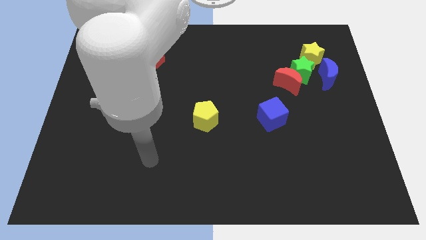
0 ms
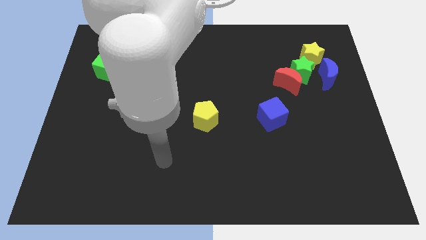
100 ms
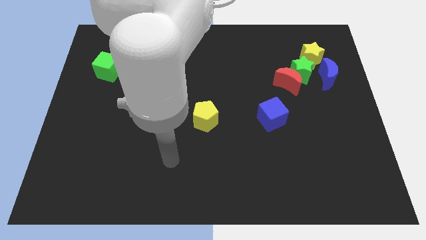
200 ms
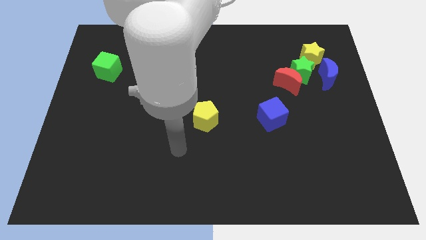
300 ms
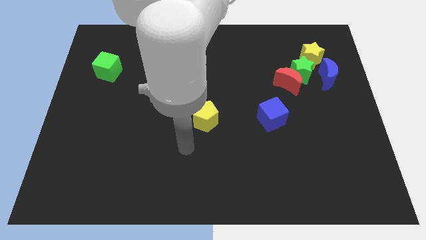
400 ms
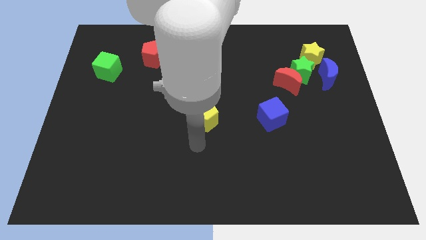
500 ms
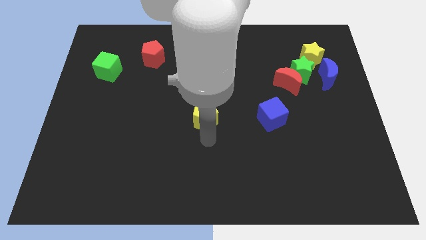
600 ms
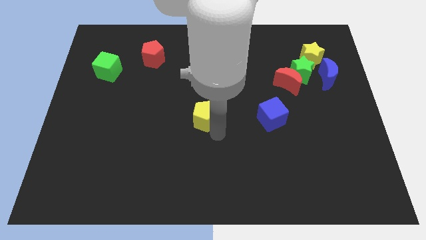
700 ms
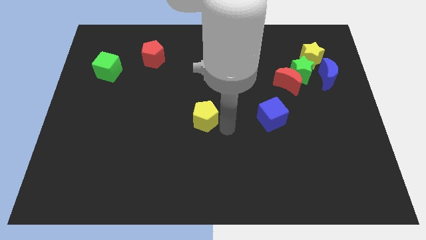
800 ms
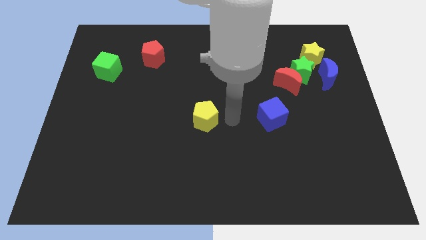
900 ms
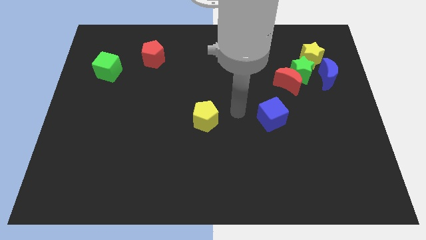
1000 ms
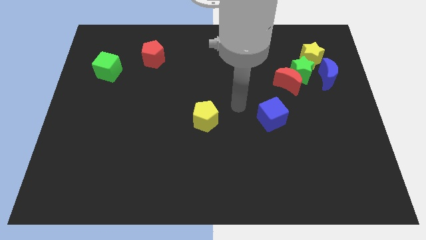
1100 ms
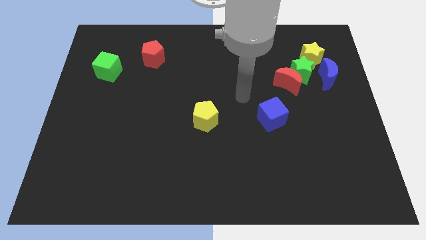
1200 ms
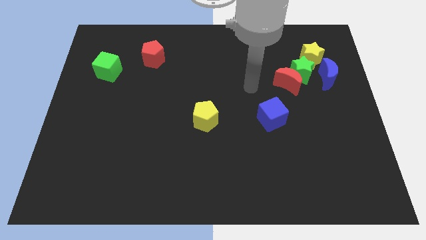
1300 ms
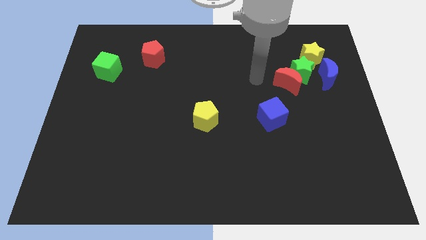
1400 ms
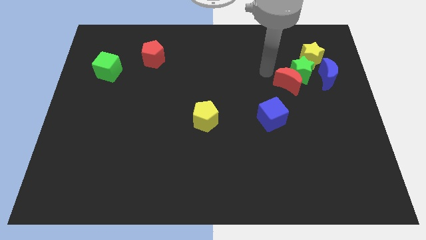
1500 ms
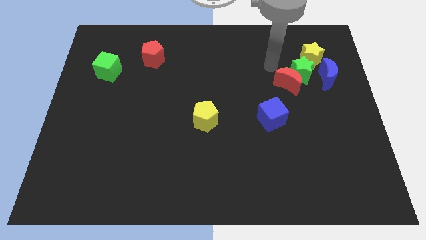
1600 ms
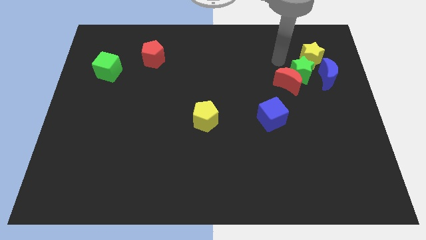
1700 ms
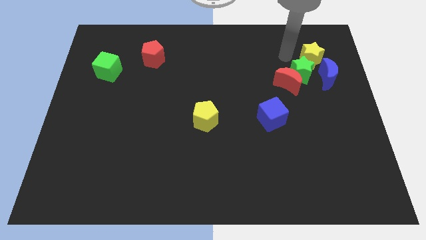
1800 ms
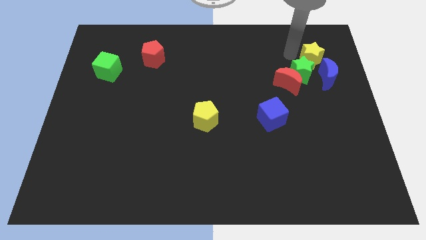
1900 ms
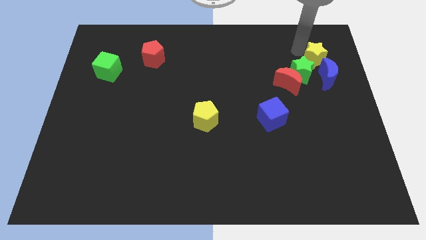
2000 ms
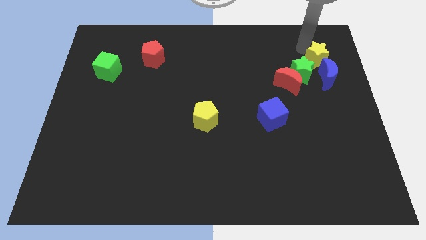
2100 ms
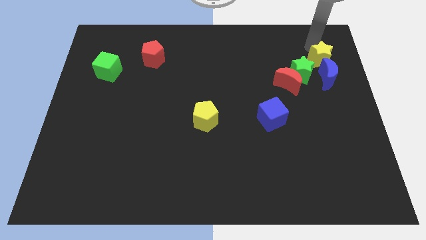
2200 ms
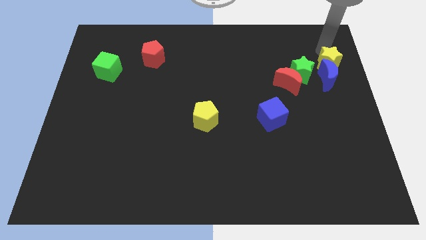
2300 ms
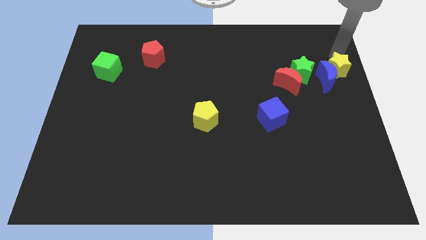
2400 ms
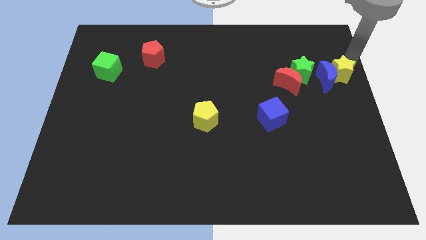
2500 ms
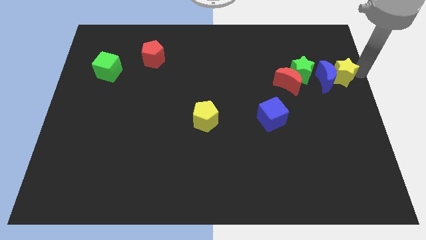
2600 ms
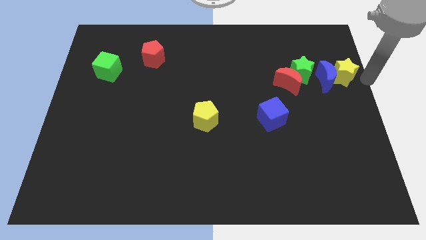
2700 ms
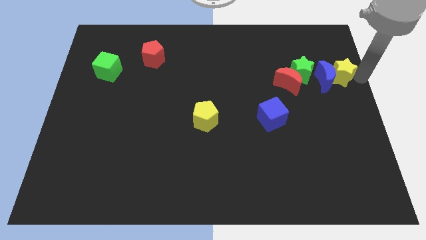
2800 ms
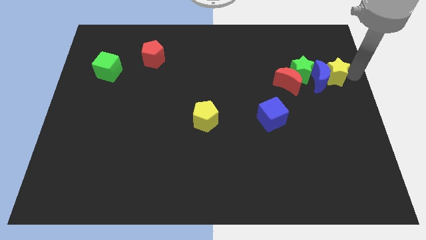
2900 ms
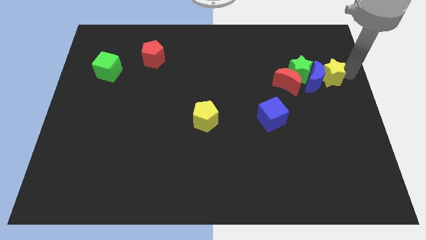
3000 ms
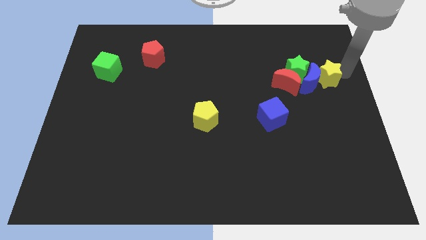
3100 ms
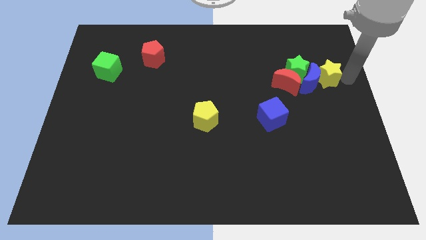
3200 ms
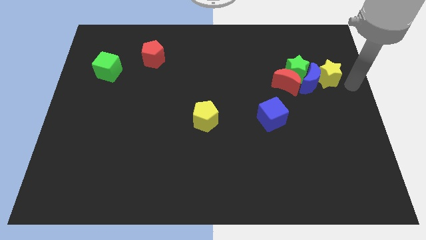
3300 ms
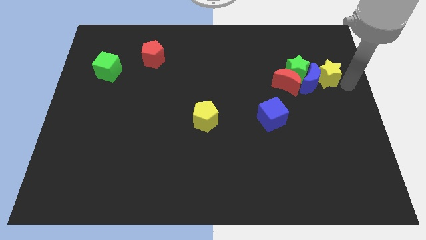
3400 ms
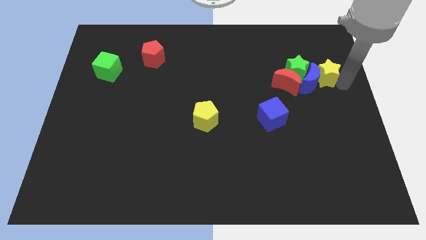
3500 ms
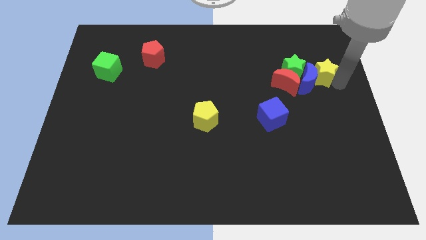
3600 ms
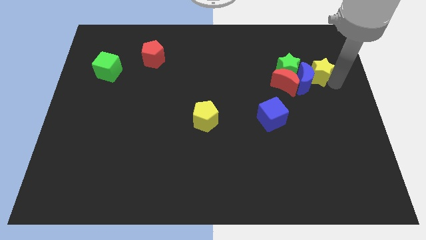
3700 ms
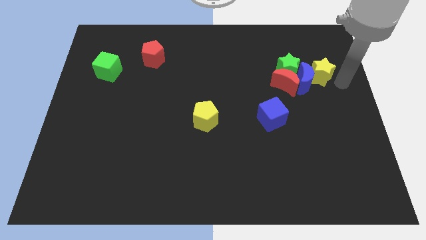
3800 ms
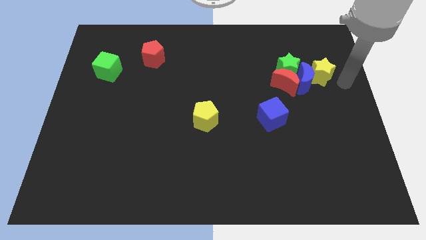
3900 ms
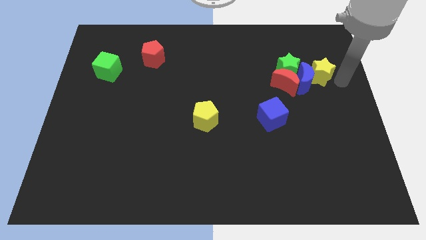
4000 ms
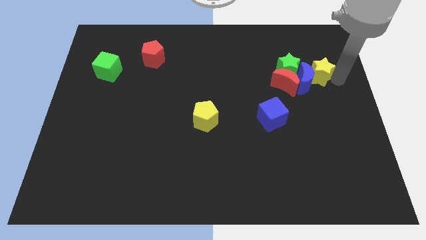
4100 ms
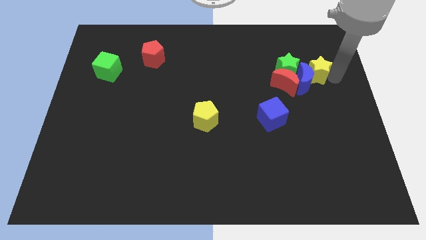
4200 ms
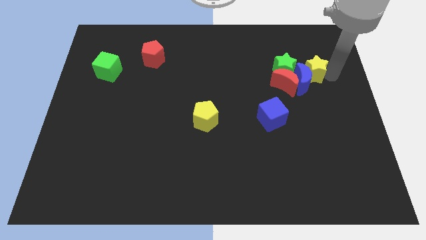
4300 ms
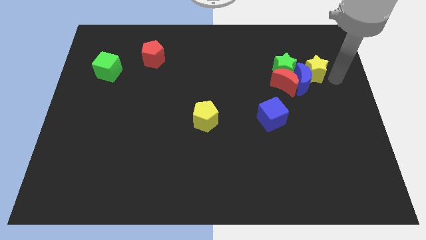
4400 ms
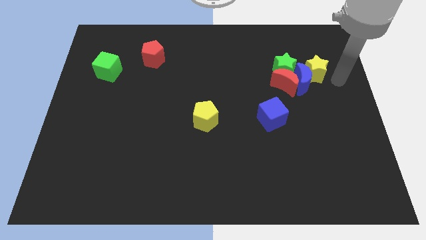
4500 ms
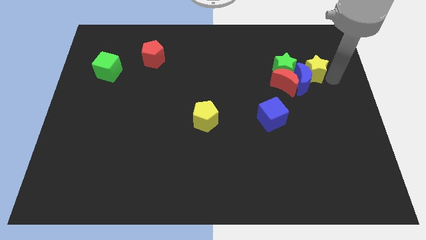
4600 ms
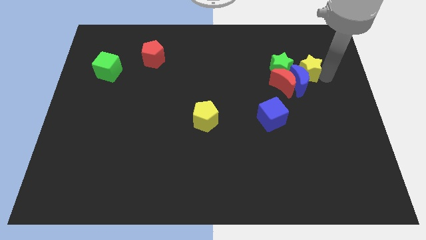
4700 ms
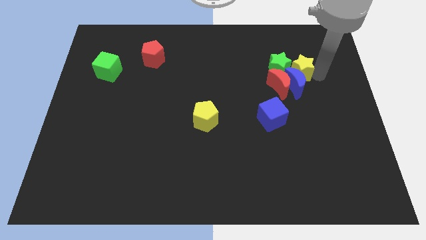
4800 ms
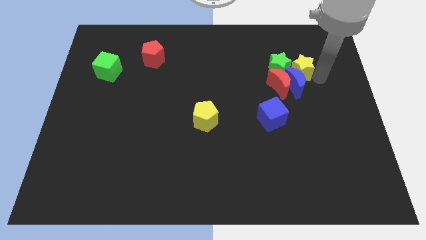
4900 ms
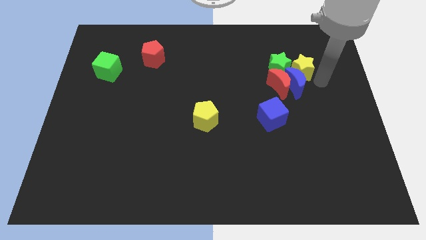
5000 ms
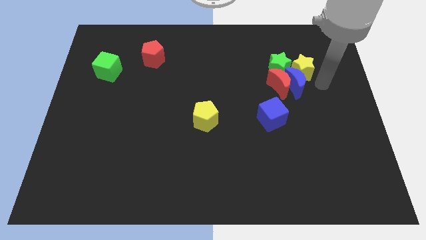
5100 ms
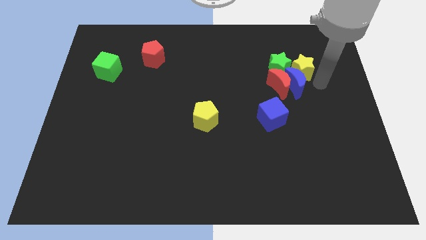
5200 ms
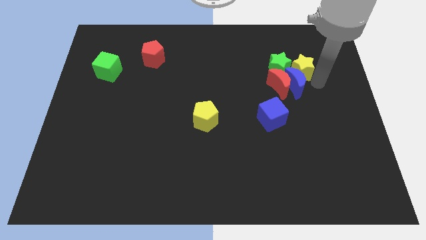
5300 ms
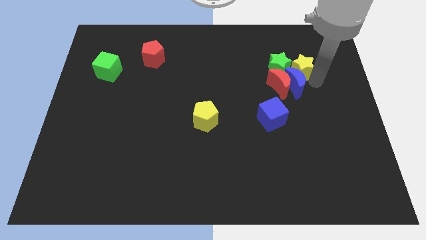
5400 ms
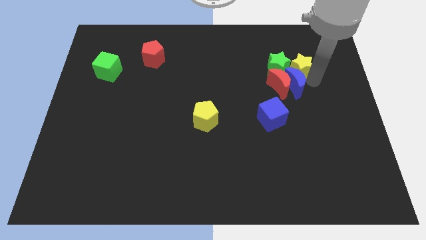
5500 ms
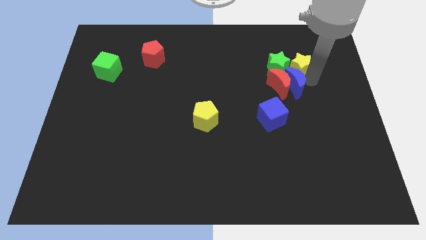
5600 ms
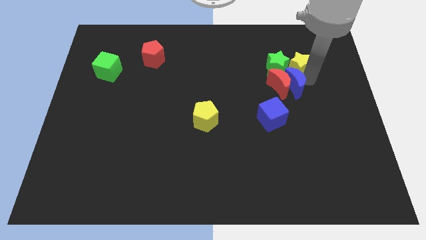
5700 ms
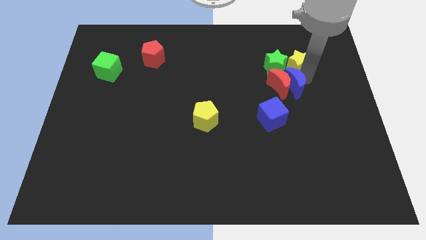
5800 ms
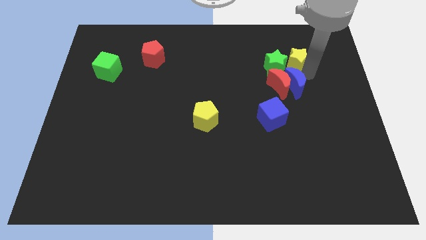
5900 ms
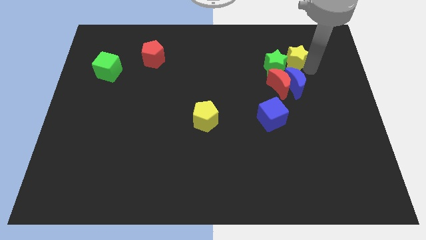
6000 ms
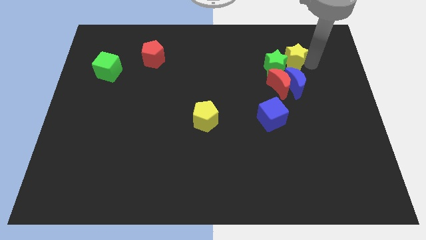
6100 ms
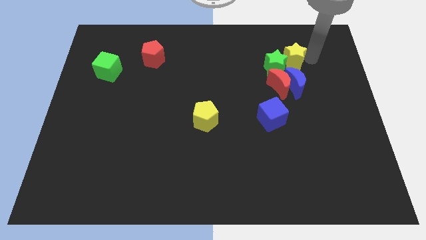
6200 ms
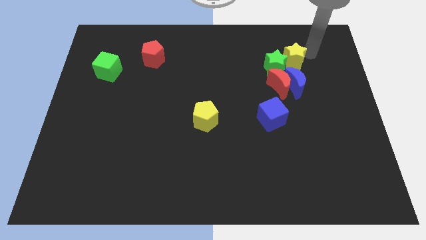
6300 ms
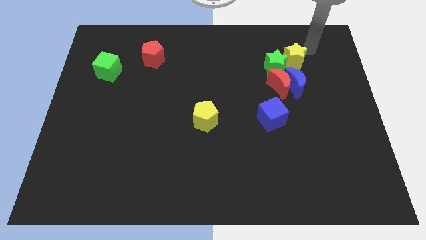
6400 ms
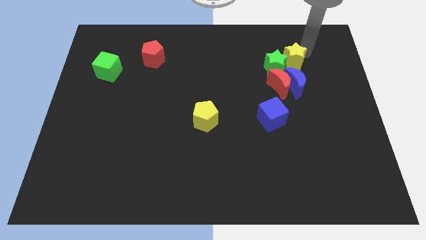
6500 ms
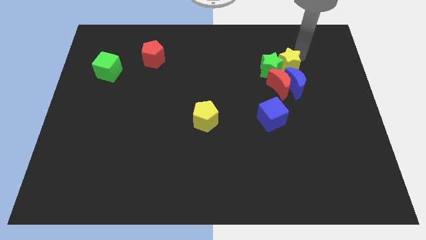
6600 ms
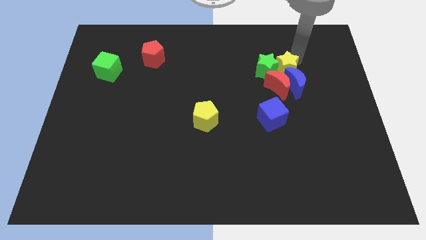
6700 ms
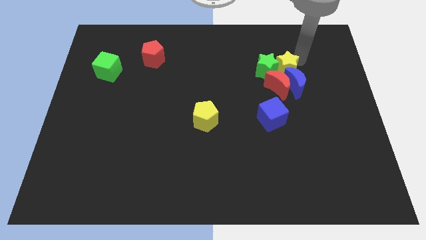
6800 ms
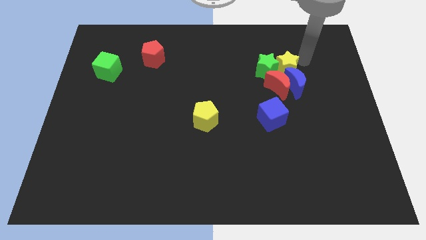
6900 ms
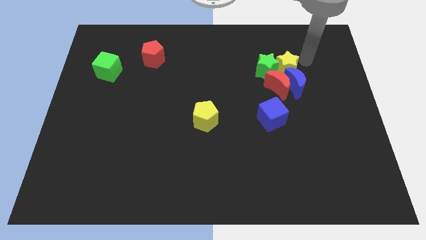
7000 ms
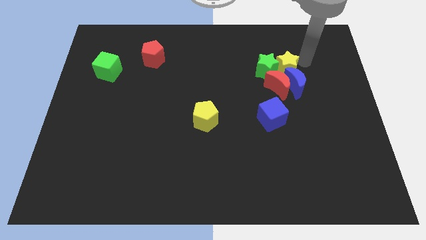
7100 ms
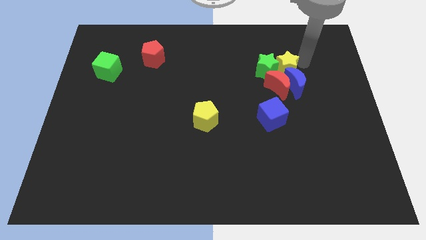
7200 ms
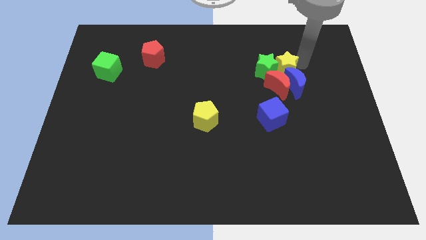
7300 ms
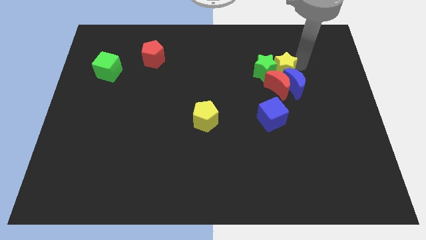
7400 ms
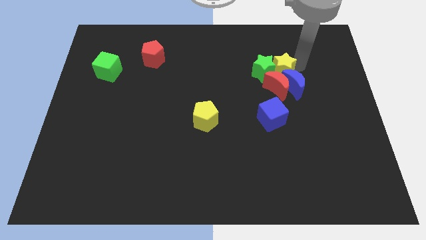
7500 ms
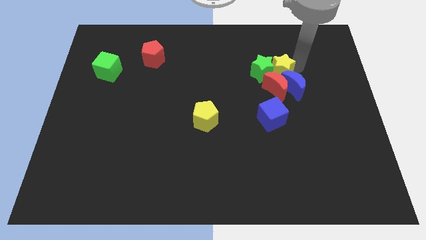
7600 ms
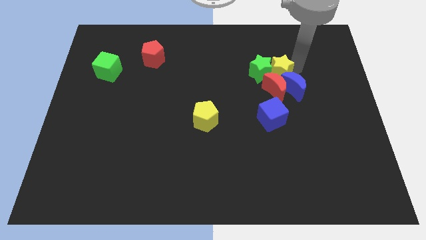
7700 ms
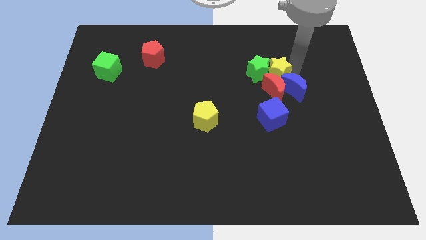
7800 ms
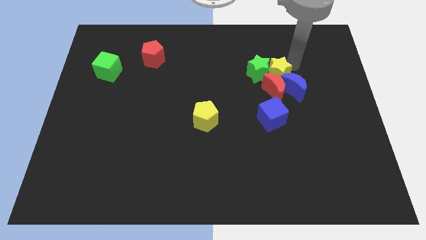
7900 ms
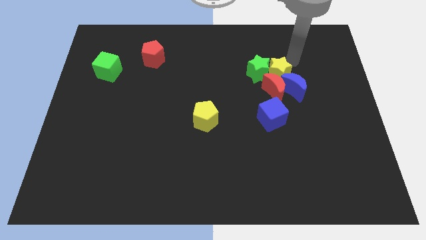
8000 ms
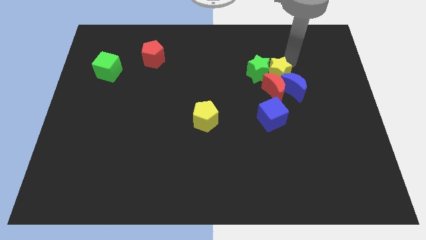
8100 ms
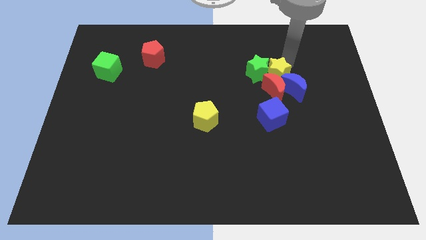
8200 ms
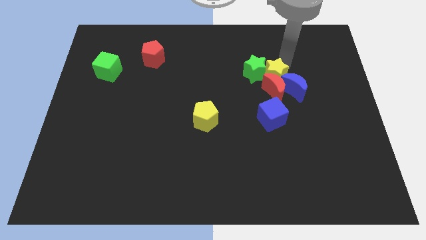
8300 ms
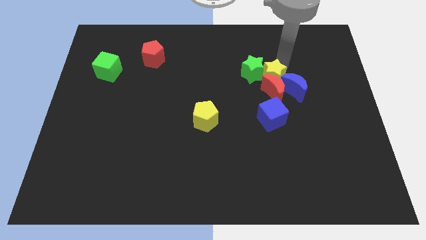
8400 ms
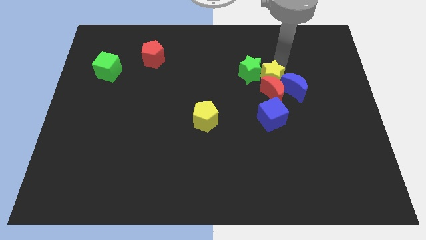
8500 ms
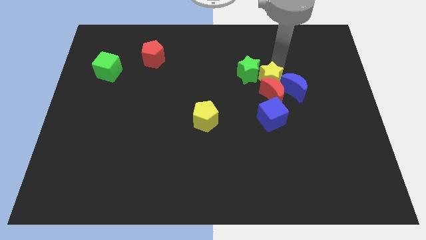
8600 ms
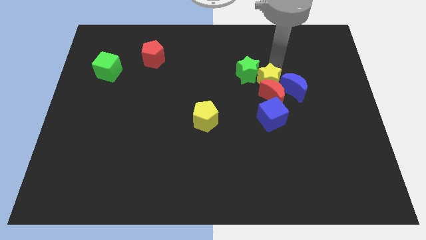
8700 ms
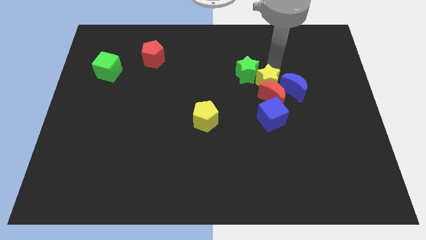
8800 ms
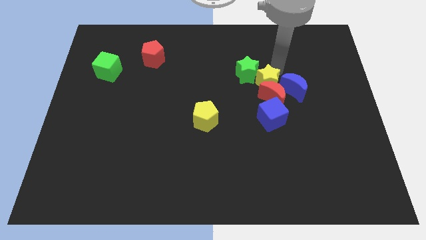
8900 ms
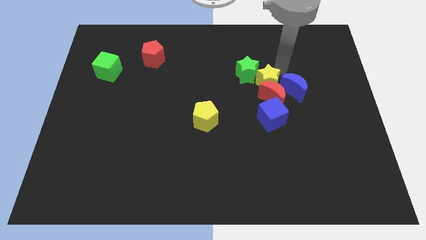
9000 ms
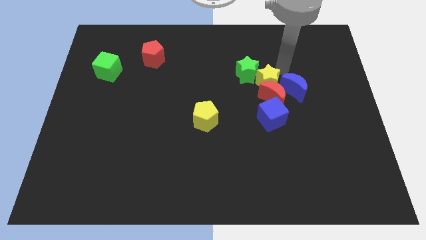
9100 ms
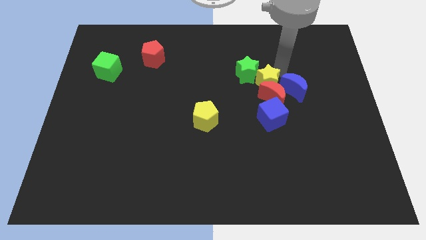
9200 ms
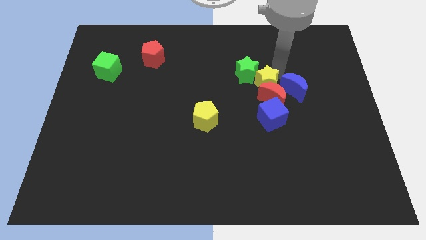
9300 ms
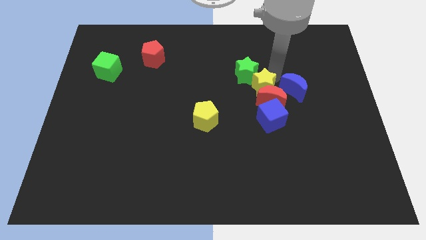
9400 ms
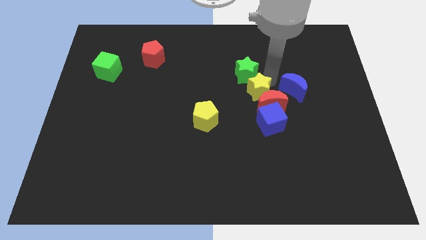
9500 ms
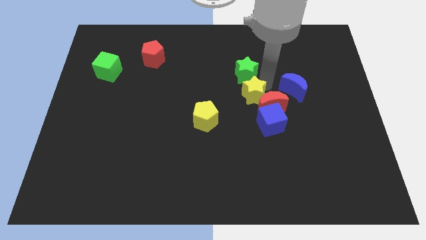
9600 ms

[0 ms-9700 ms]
move the yellow star down and to the left
